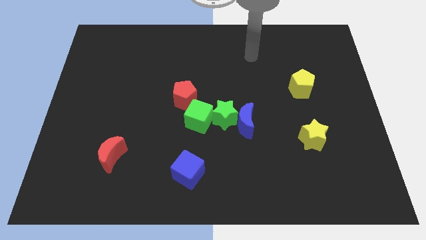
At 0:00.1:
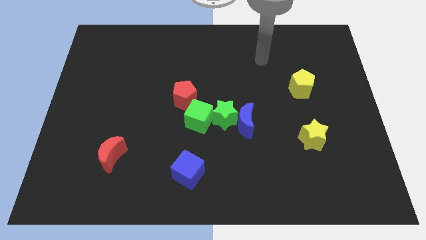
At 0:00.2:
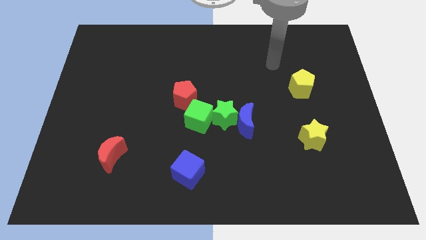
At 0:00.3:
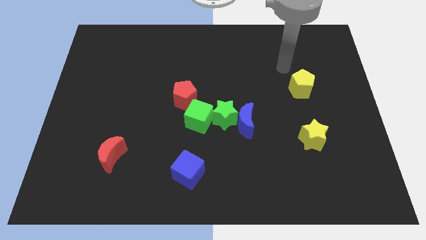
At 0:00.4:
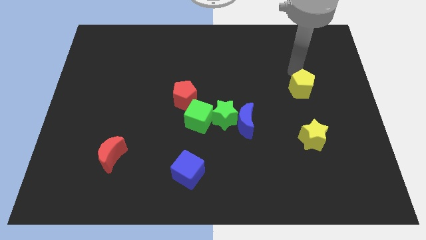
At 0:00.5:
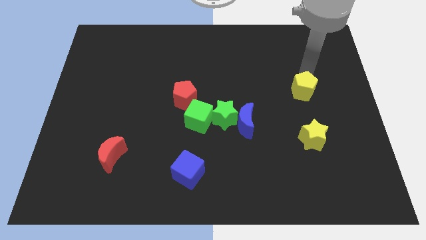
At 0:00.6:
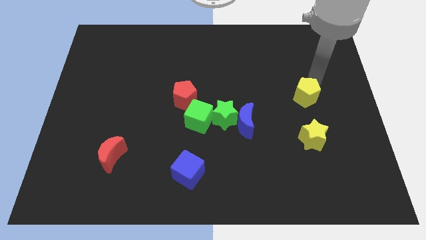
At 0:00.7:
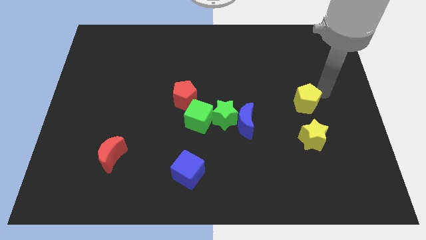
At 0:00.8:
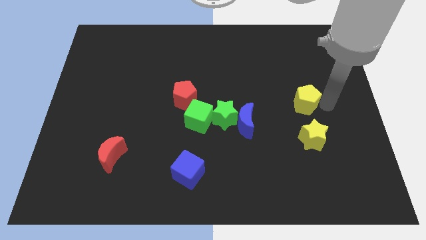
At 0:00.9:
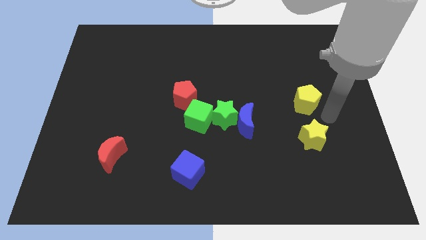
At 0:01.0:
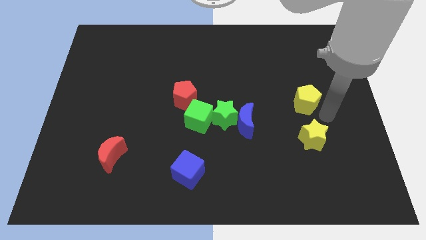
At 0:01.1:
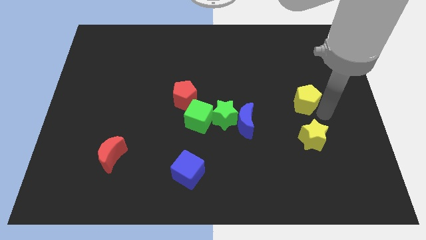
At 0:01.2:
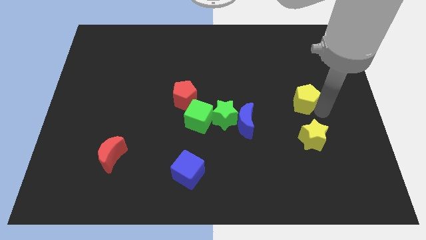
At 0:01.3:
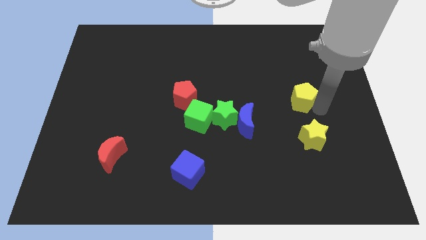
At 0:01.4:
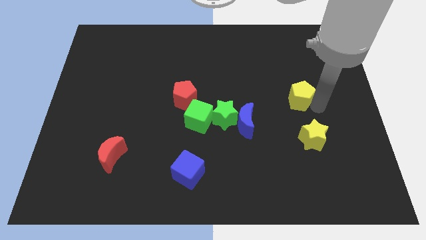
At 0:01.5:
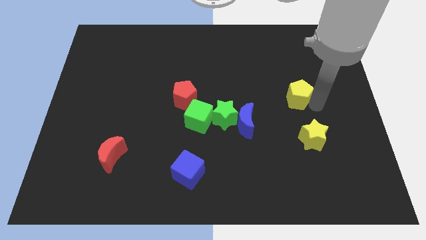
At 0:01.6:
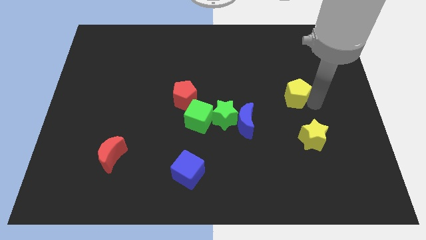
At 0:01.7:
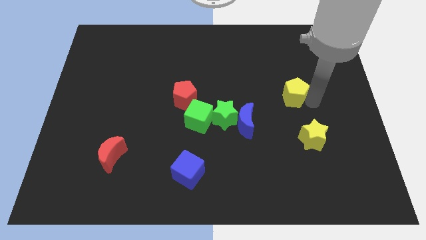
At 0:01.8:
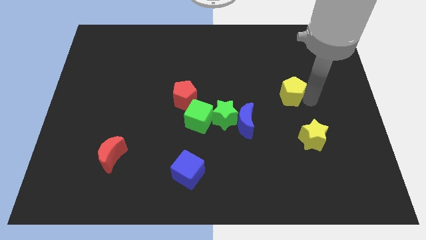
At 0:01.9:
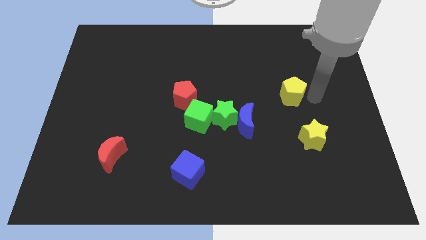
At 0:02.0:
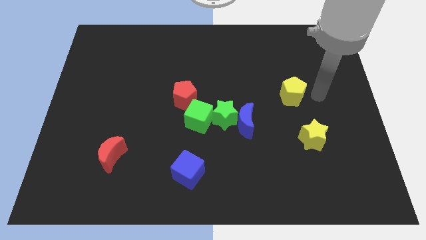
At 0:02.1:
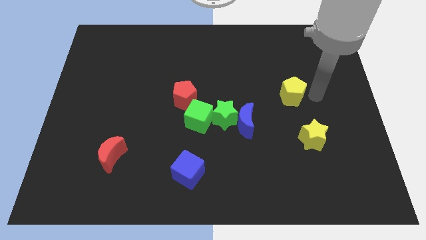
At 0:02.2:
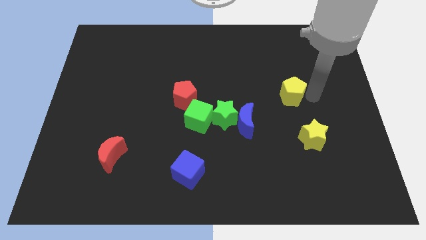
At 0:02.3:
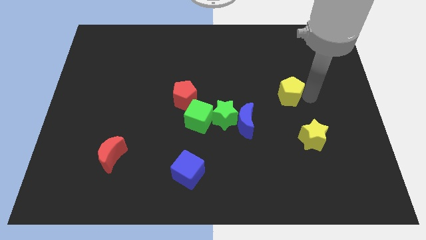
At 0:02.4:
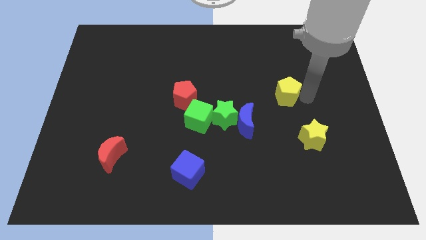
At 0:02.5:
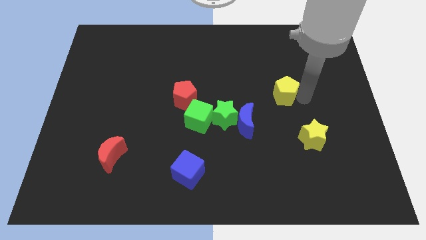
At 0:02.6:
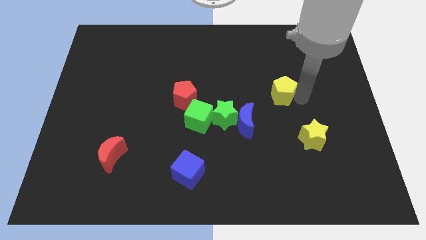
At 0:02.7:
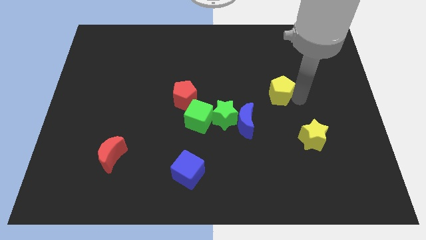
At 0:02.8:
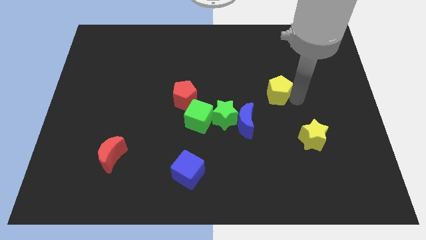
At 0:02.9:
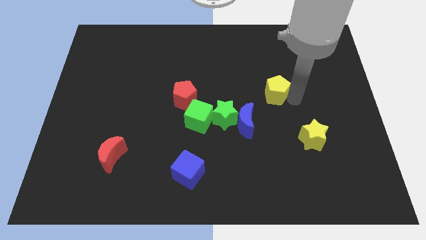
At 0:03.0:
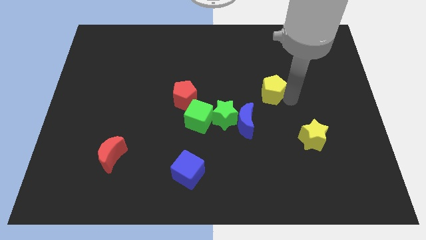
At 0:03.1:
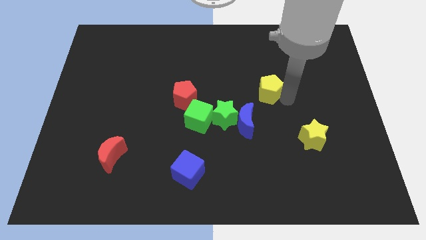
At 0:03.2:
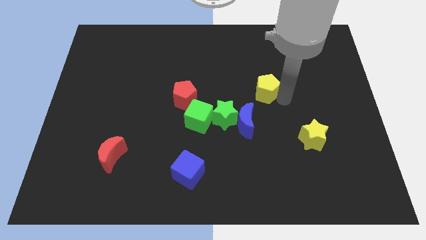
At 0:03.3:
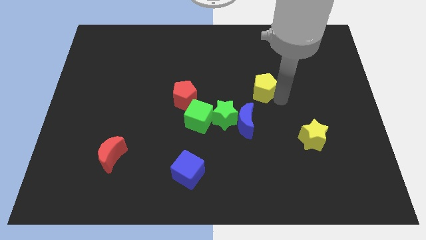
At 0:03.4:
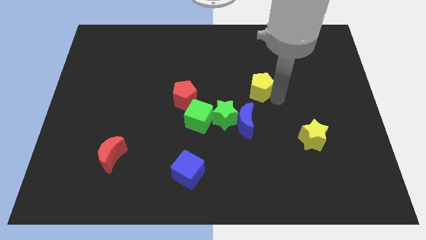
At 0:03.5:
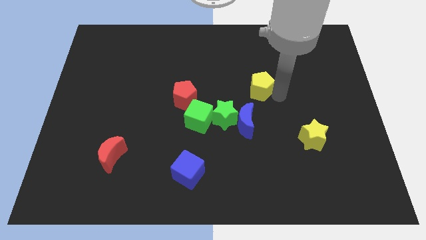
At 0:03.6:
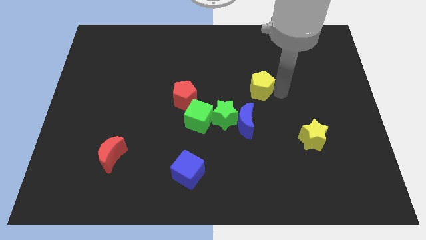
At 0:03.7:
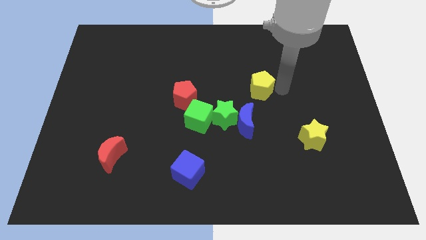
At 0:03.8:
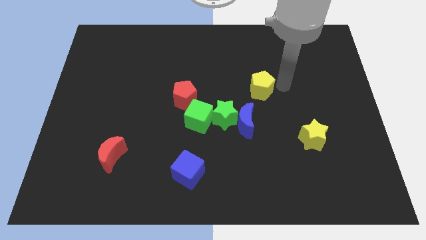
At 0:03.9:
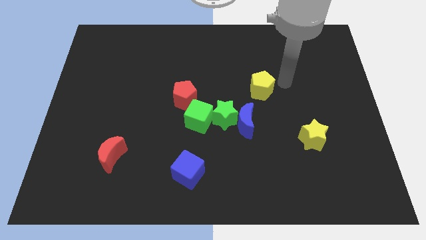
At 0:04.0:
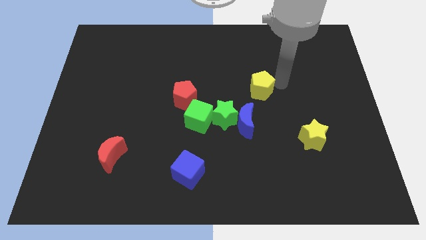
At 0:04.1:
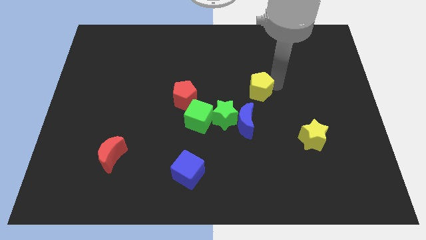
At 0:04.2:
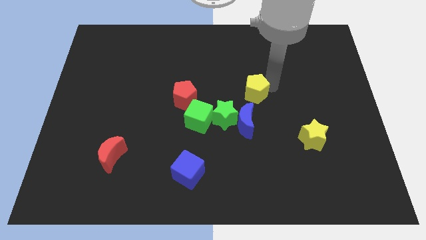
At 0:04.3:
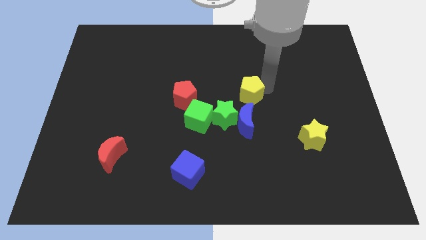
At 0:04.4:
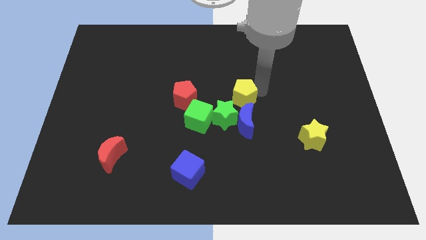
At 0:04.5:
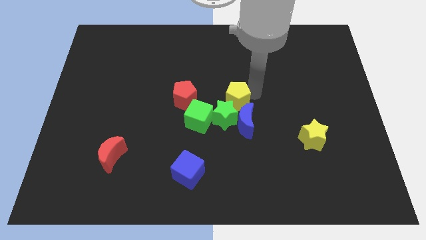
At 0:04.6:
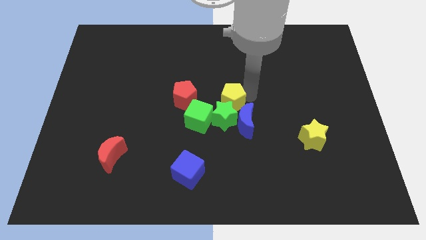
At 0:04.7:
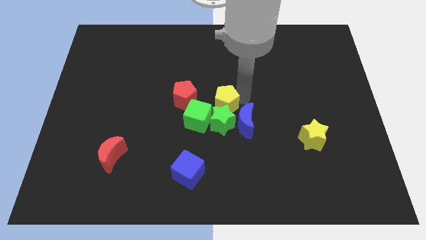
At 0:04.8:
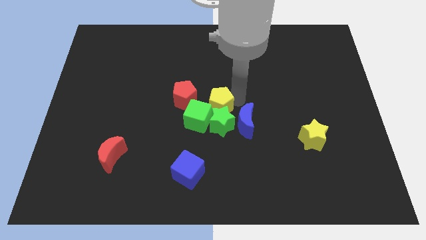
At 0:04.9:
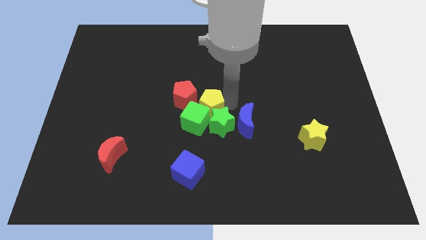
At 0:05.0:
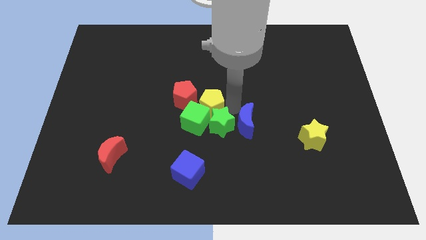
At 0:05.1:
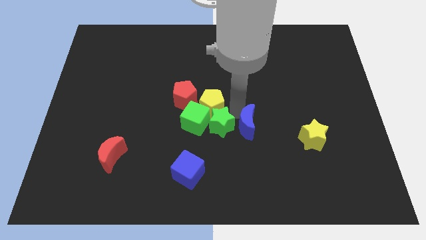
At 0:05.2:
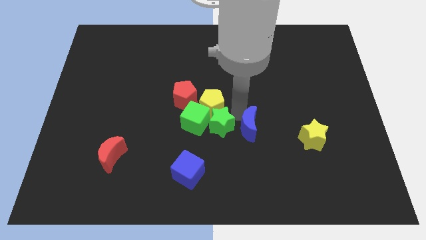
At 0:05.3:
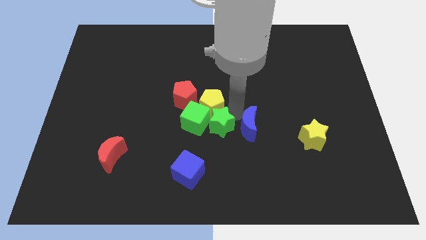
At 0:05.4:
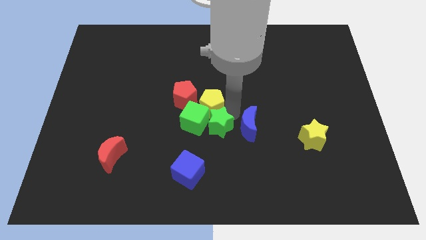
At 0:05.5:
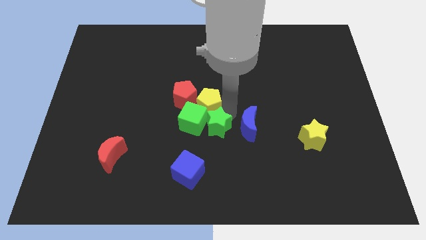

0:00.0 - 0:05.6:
push the yellow pentagon close to the red pentagon

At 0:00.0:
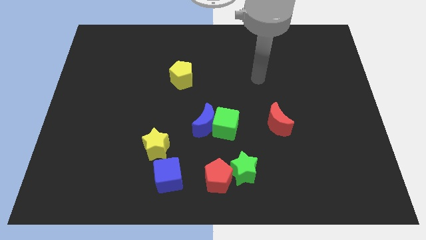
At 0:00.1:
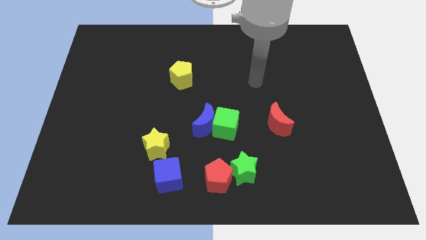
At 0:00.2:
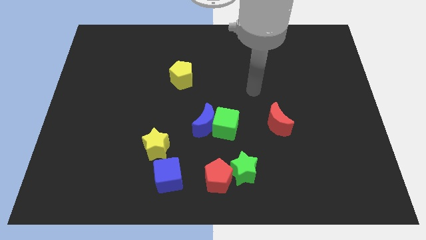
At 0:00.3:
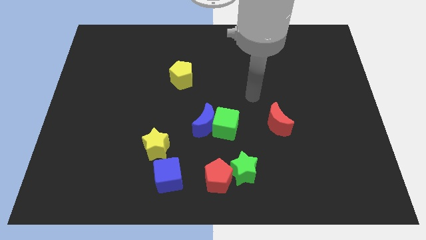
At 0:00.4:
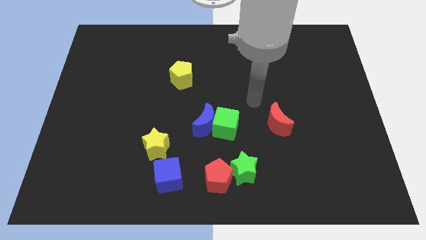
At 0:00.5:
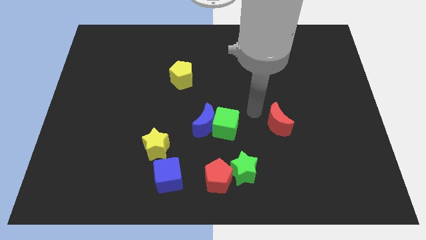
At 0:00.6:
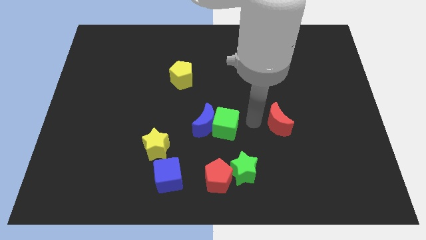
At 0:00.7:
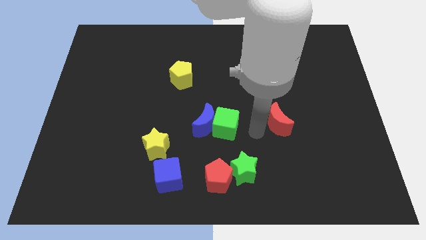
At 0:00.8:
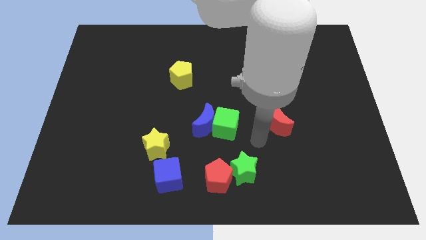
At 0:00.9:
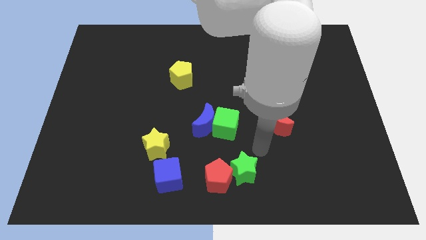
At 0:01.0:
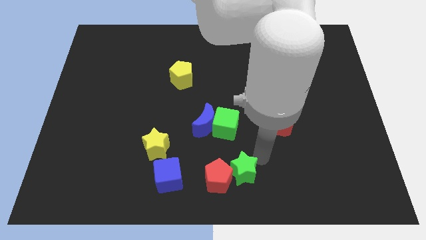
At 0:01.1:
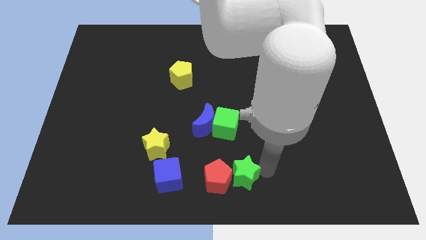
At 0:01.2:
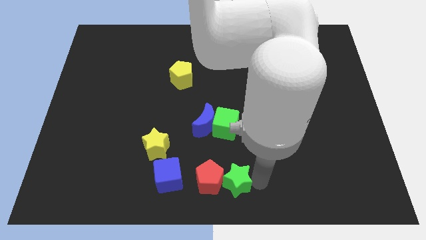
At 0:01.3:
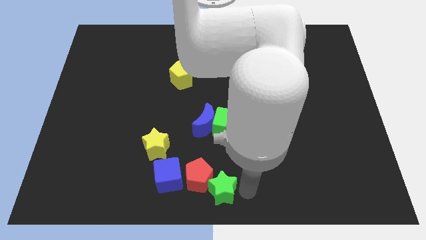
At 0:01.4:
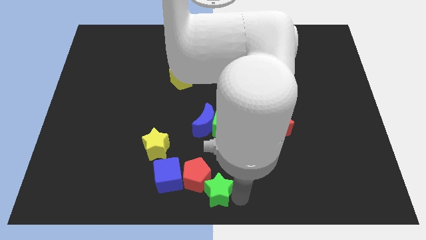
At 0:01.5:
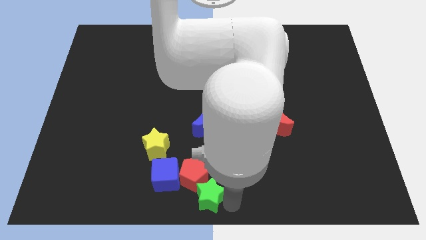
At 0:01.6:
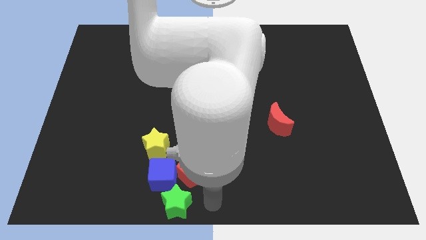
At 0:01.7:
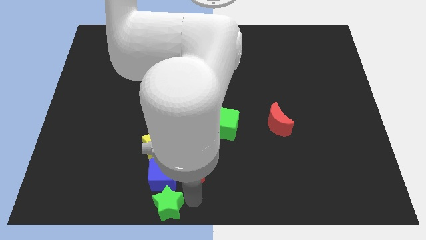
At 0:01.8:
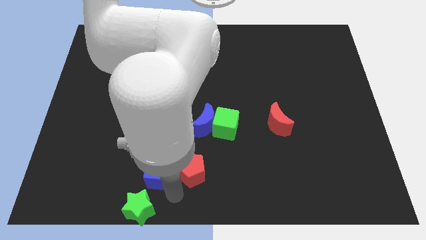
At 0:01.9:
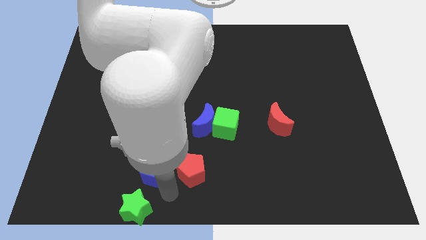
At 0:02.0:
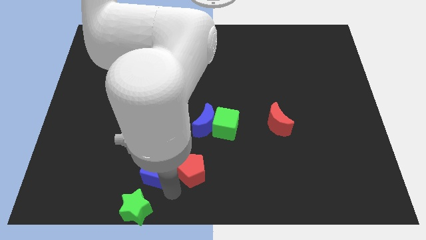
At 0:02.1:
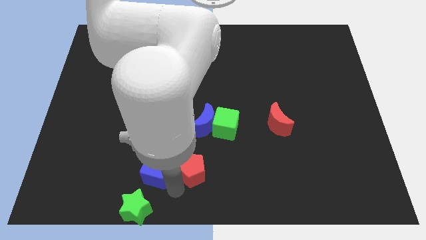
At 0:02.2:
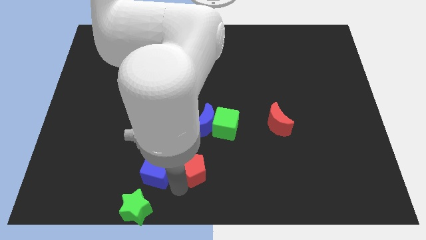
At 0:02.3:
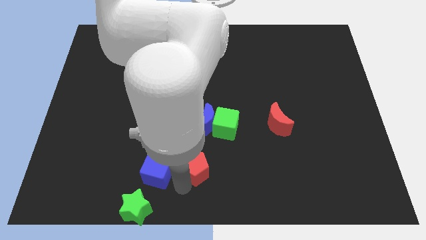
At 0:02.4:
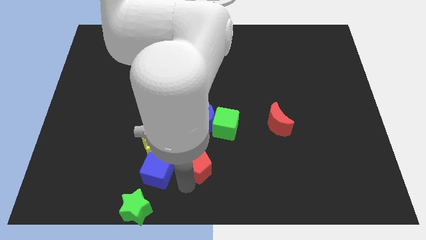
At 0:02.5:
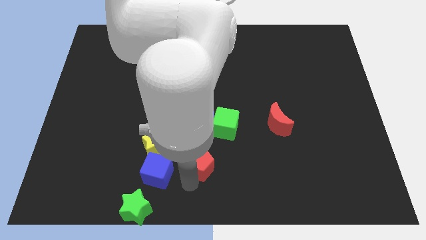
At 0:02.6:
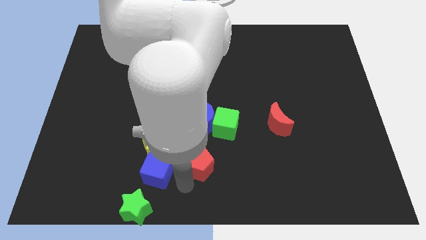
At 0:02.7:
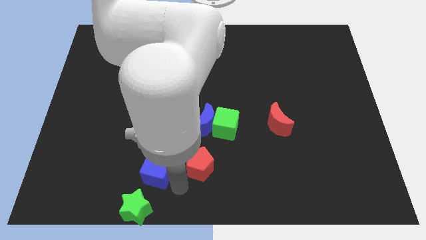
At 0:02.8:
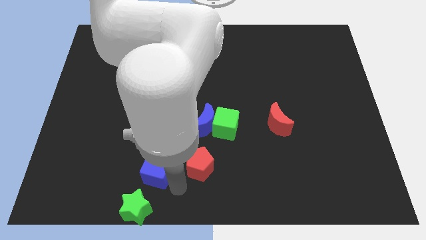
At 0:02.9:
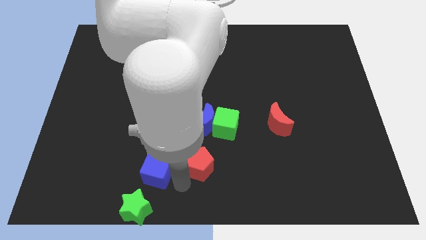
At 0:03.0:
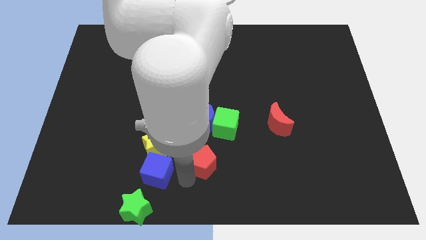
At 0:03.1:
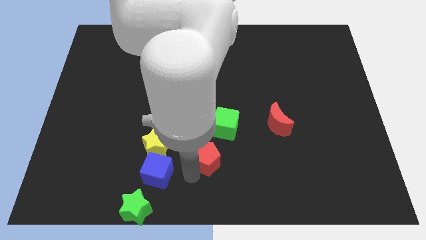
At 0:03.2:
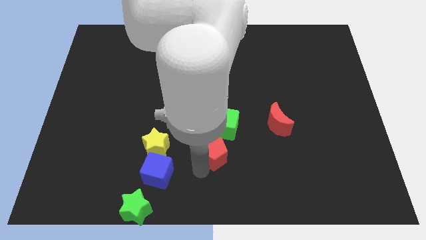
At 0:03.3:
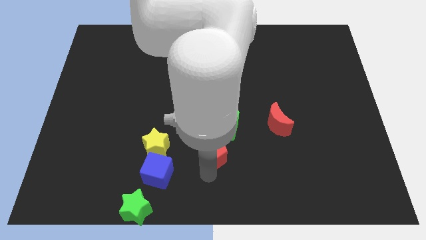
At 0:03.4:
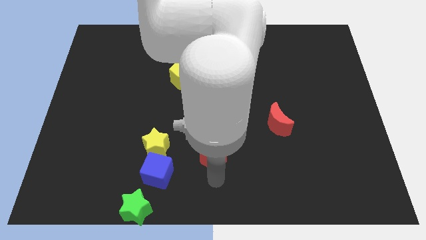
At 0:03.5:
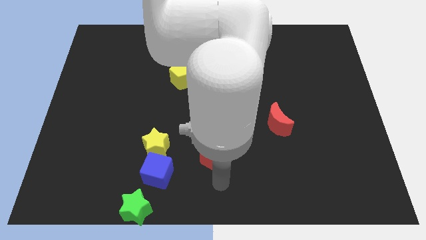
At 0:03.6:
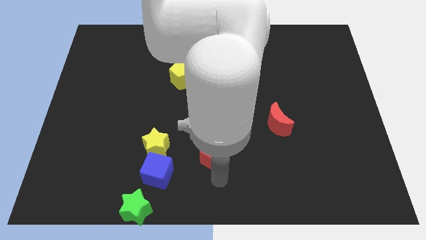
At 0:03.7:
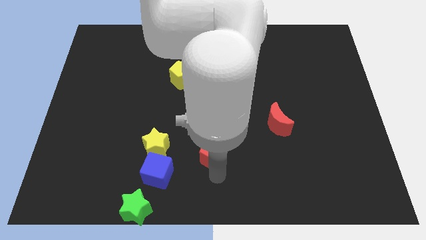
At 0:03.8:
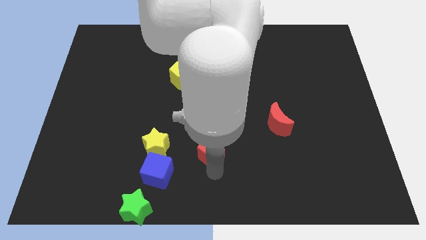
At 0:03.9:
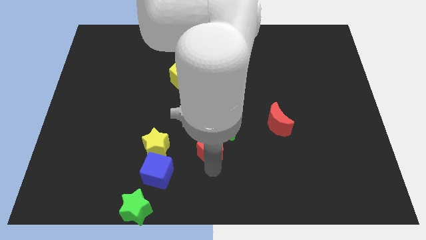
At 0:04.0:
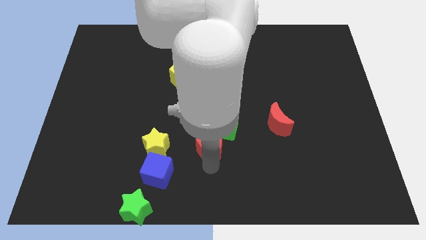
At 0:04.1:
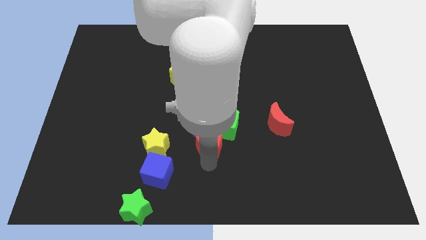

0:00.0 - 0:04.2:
slide the red pentagon next to the blue moon
